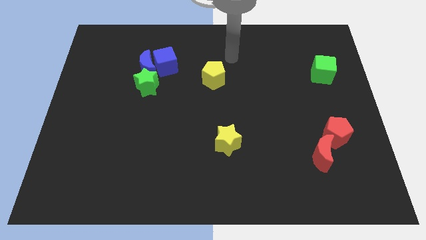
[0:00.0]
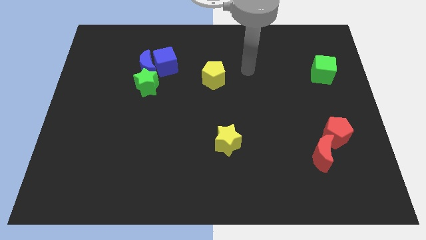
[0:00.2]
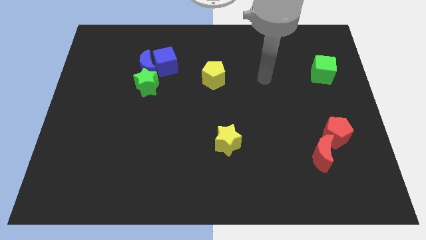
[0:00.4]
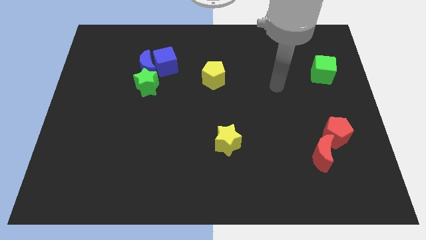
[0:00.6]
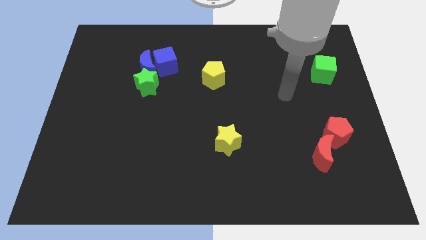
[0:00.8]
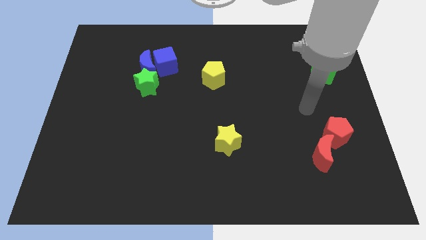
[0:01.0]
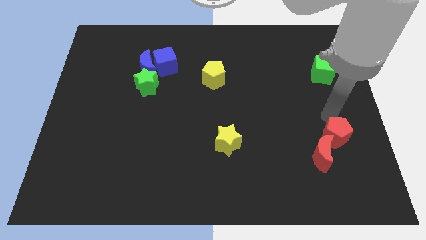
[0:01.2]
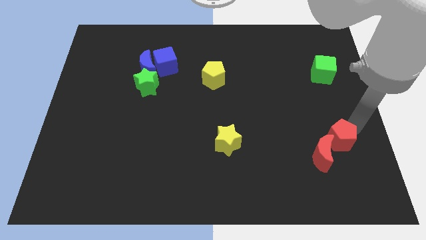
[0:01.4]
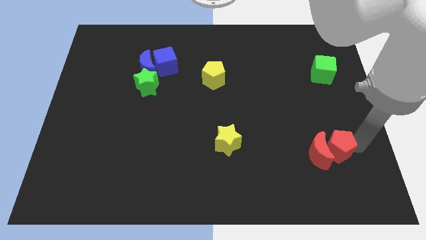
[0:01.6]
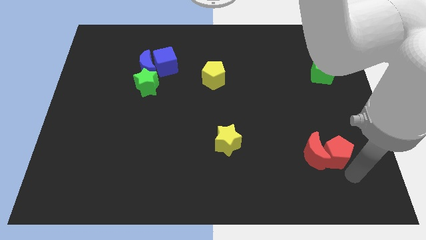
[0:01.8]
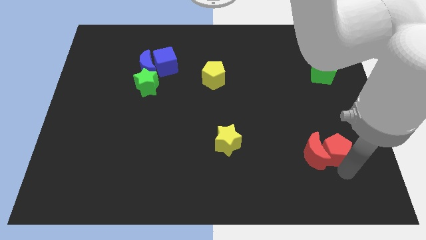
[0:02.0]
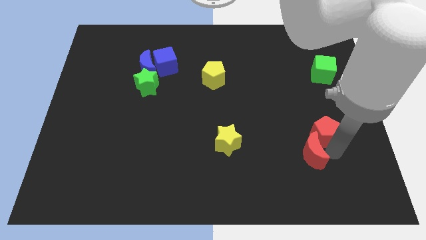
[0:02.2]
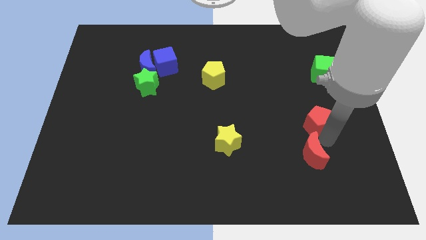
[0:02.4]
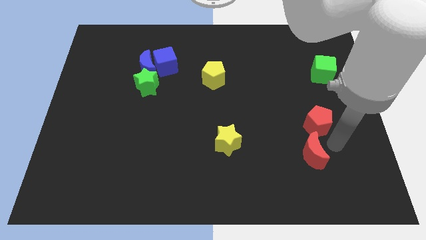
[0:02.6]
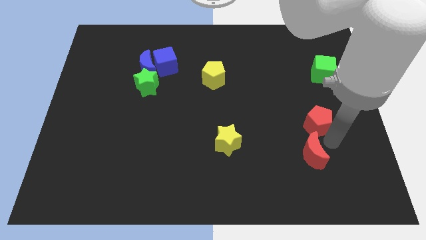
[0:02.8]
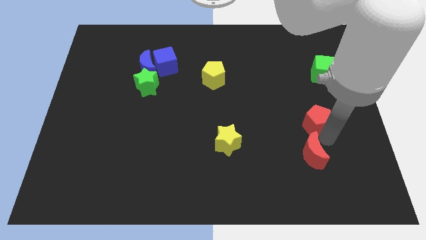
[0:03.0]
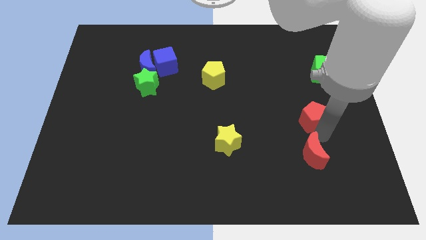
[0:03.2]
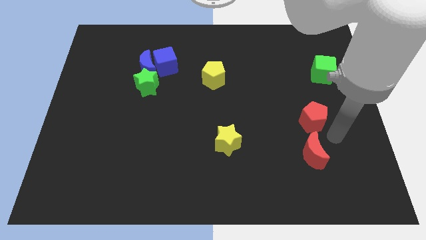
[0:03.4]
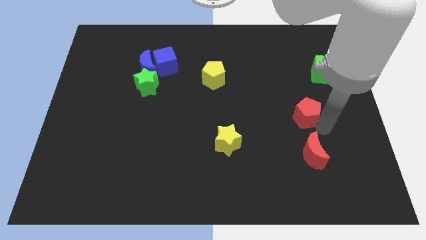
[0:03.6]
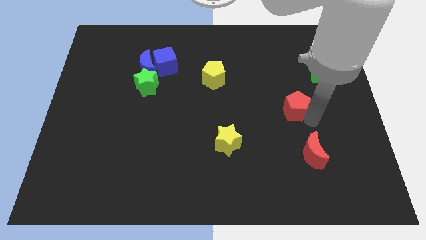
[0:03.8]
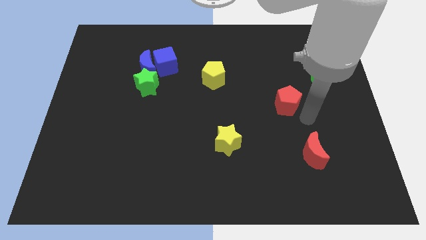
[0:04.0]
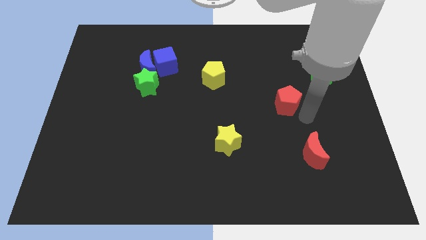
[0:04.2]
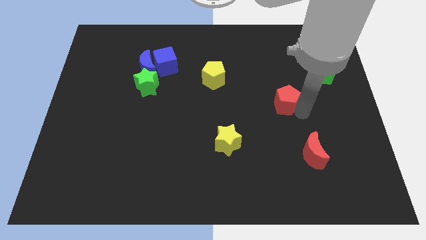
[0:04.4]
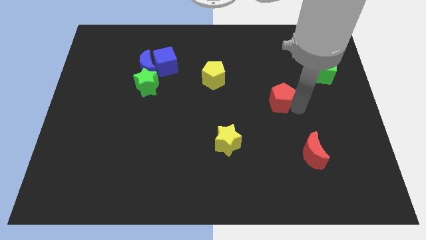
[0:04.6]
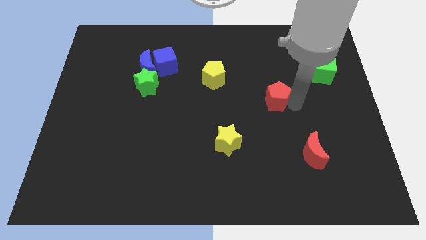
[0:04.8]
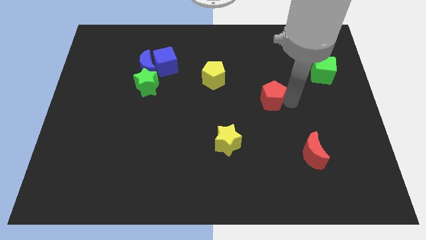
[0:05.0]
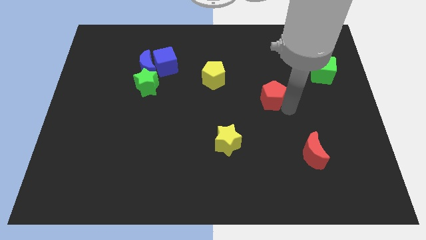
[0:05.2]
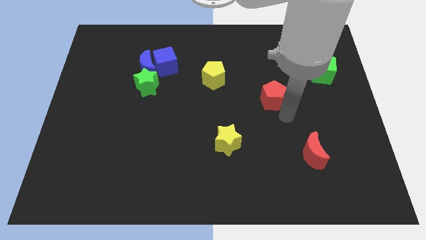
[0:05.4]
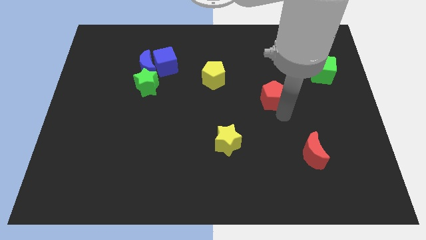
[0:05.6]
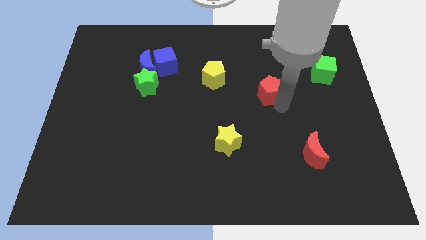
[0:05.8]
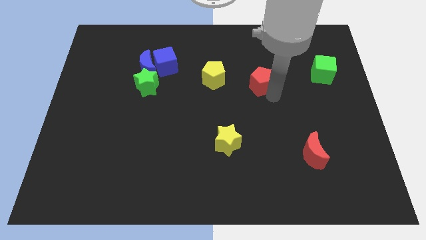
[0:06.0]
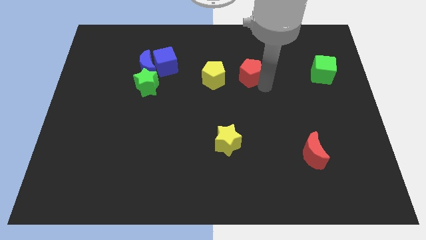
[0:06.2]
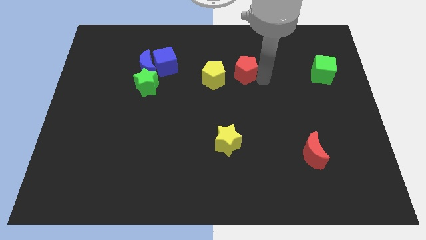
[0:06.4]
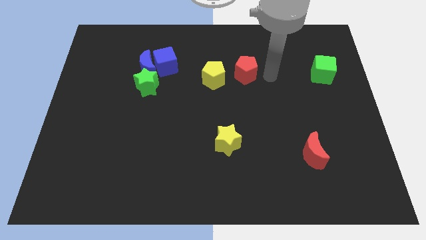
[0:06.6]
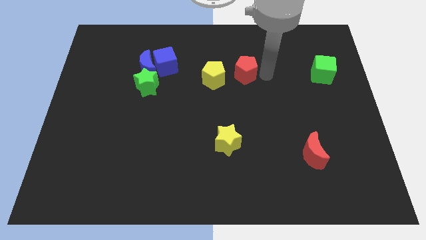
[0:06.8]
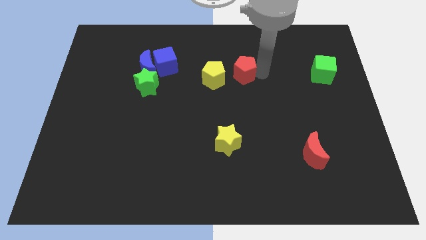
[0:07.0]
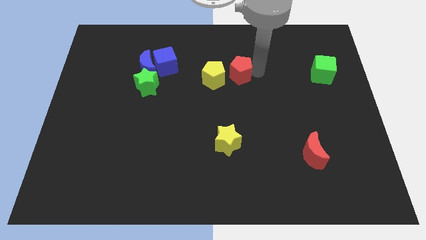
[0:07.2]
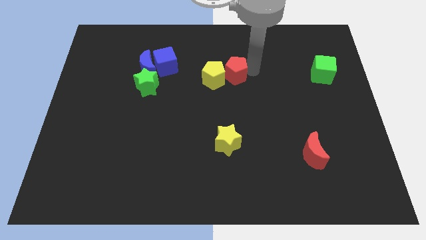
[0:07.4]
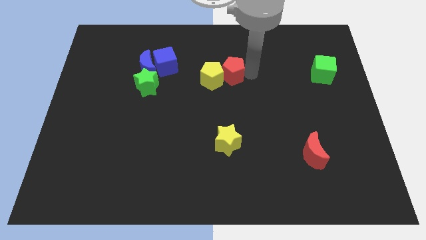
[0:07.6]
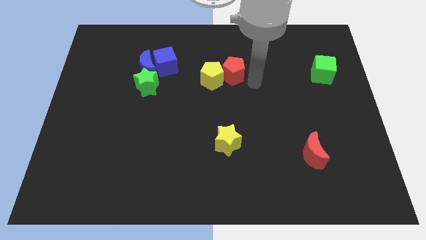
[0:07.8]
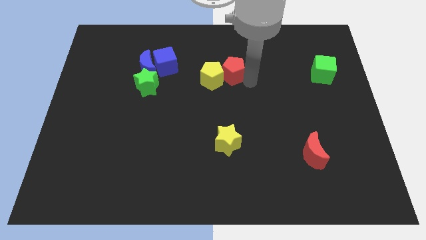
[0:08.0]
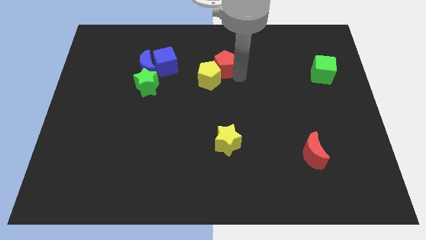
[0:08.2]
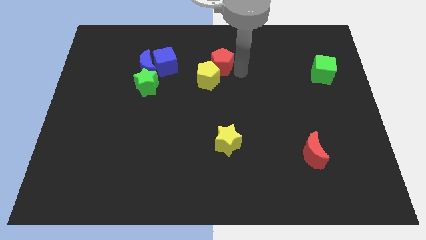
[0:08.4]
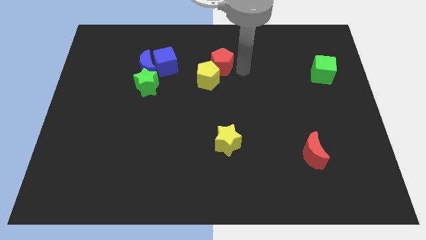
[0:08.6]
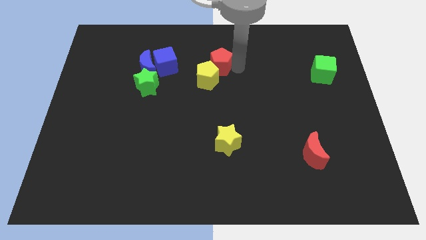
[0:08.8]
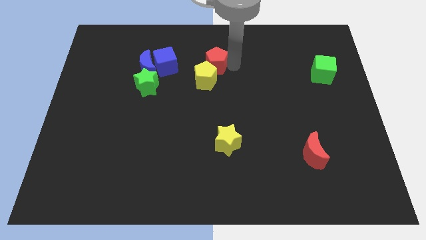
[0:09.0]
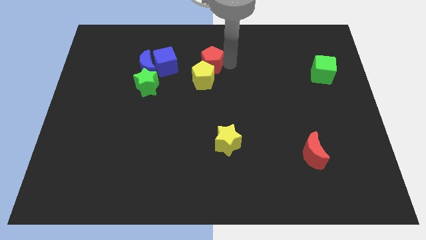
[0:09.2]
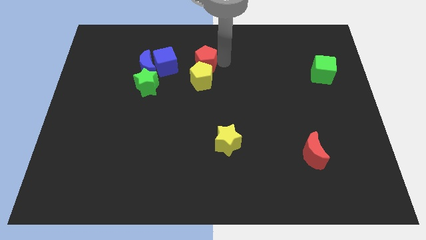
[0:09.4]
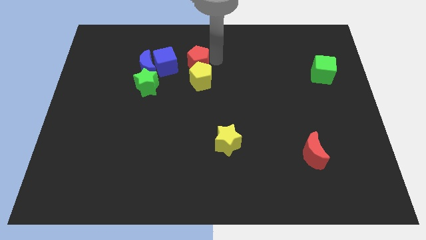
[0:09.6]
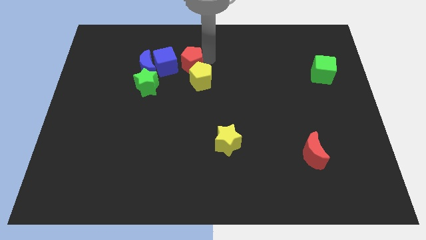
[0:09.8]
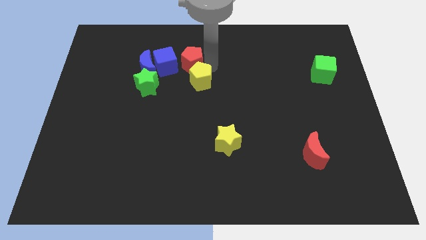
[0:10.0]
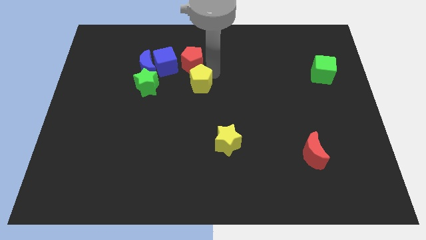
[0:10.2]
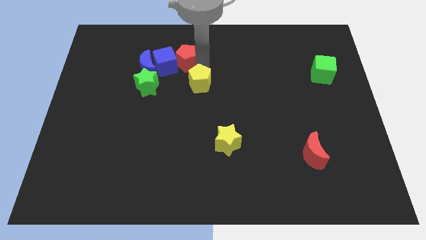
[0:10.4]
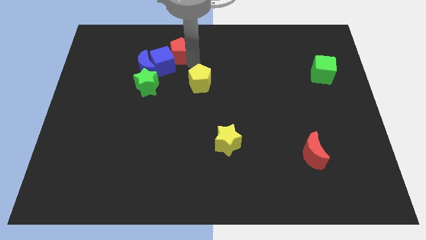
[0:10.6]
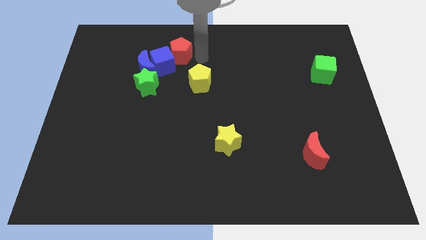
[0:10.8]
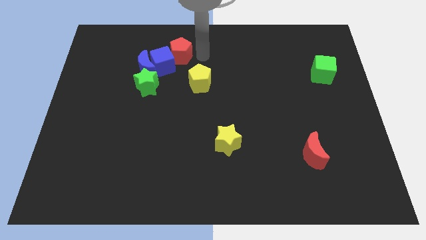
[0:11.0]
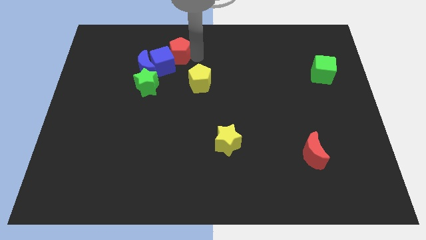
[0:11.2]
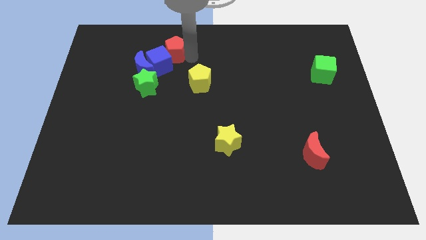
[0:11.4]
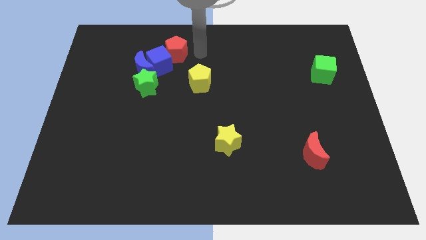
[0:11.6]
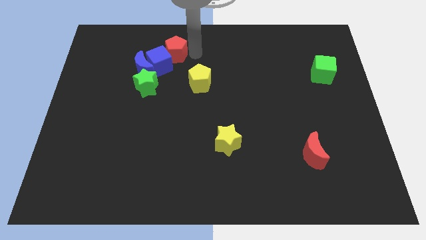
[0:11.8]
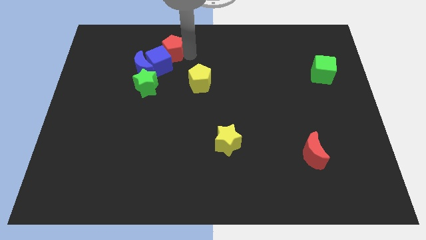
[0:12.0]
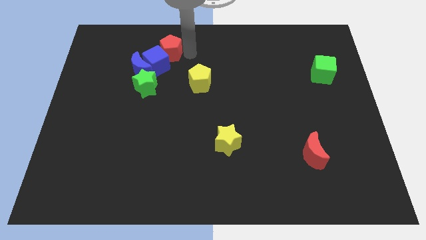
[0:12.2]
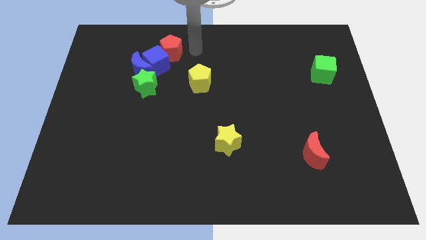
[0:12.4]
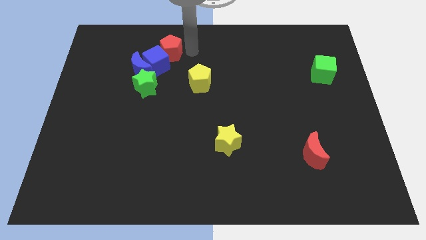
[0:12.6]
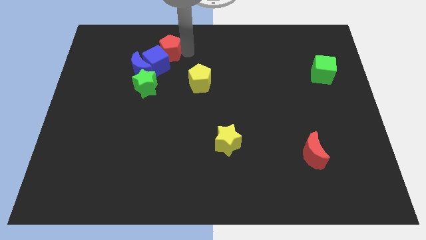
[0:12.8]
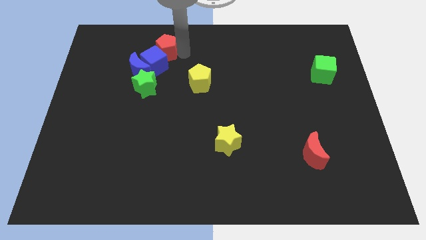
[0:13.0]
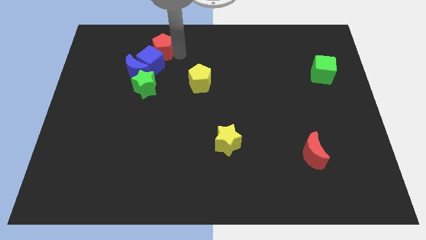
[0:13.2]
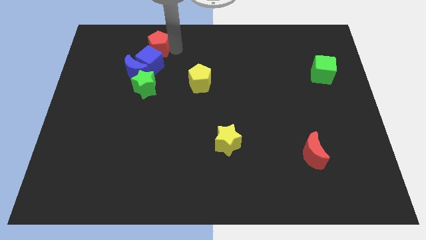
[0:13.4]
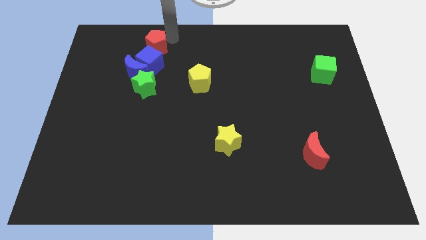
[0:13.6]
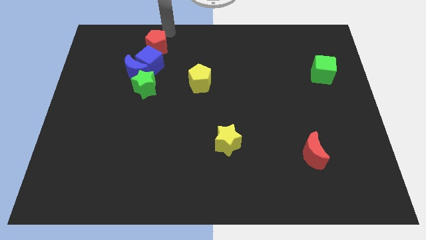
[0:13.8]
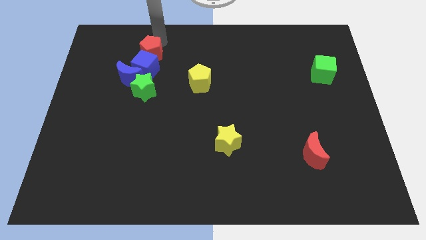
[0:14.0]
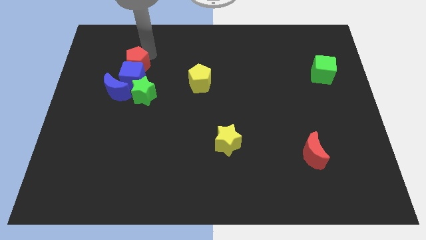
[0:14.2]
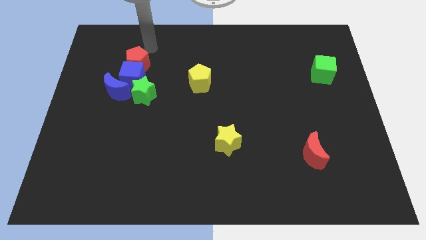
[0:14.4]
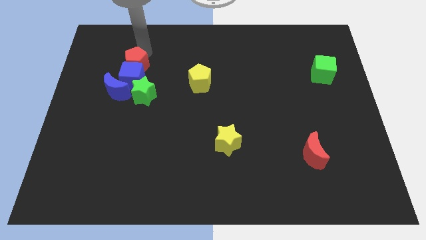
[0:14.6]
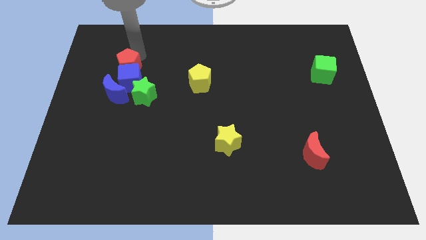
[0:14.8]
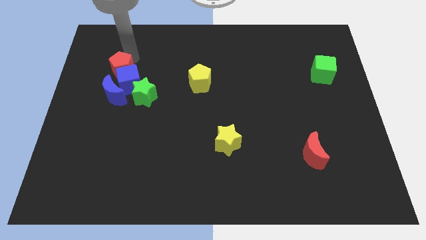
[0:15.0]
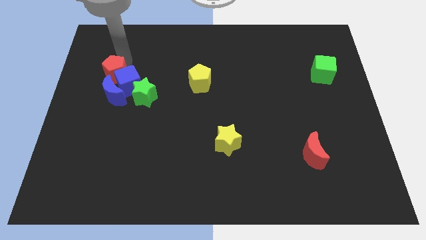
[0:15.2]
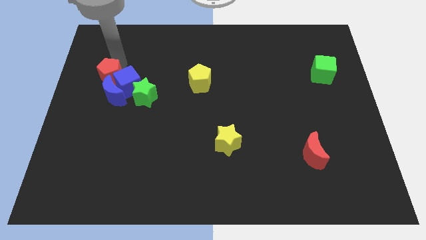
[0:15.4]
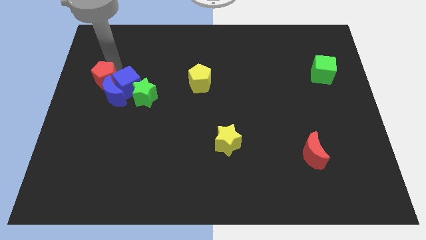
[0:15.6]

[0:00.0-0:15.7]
push the red pentagon to the blue moon
